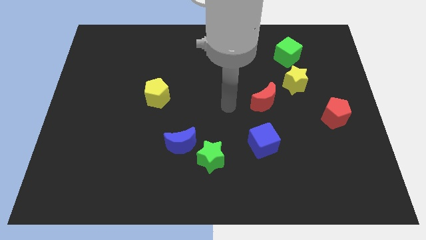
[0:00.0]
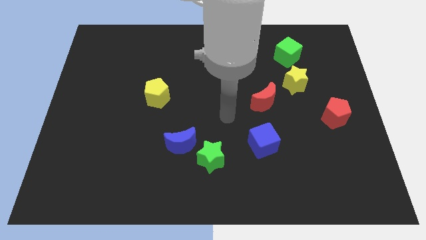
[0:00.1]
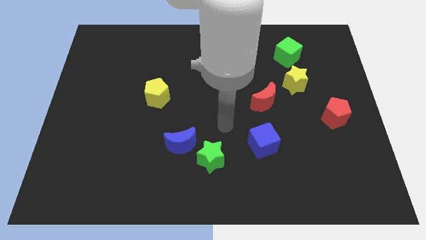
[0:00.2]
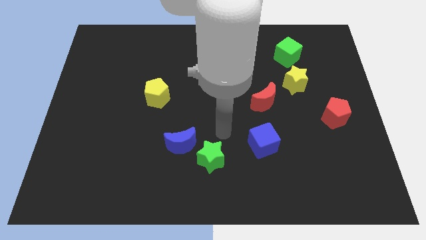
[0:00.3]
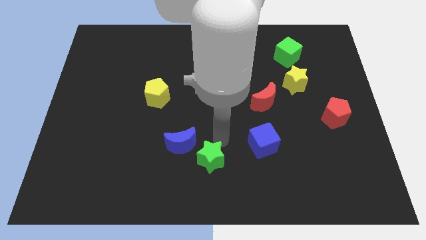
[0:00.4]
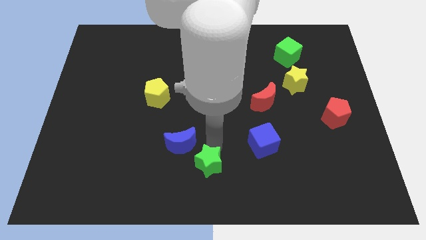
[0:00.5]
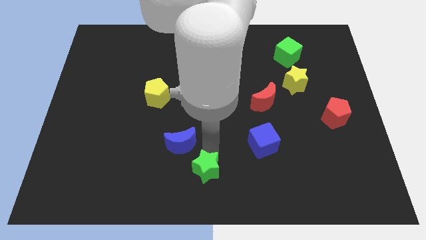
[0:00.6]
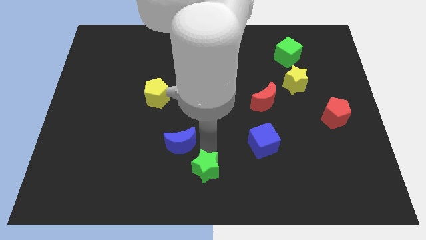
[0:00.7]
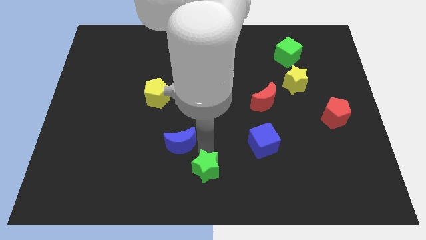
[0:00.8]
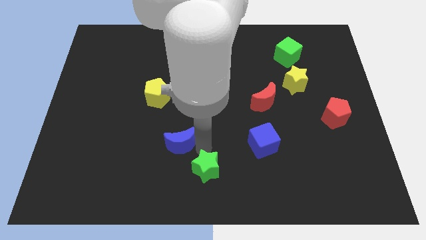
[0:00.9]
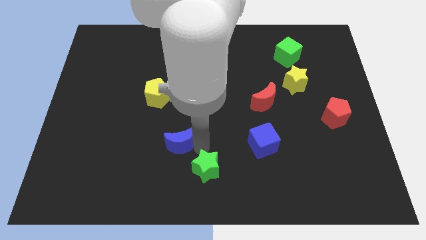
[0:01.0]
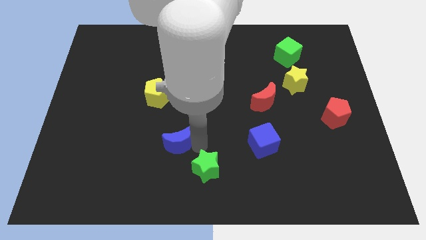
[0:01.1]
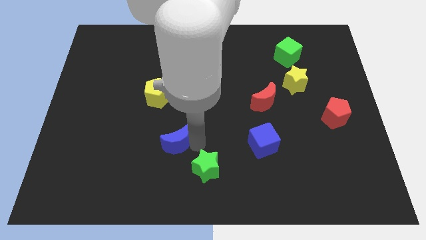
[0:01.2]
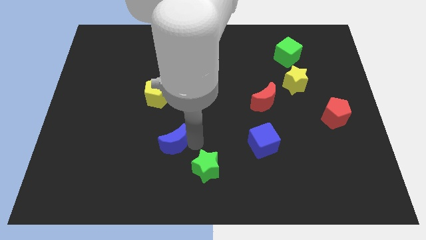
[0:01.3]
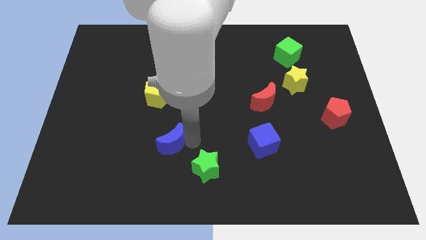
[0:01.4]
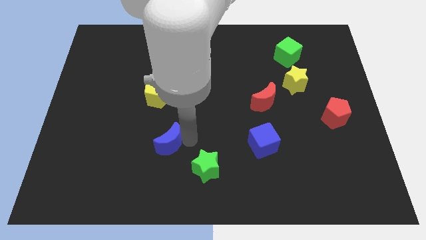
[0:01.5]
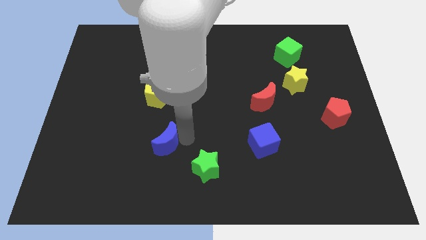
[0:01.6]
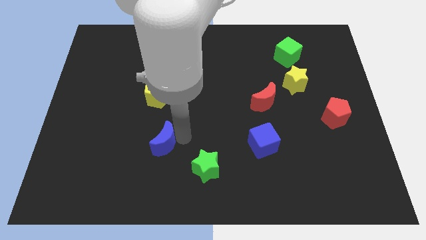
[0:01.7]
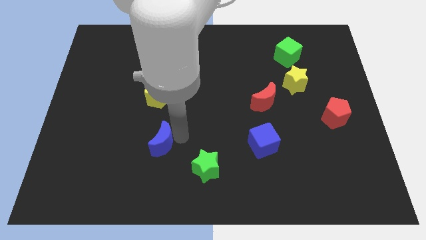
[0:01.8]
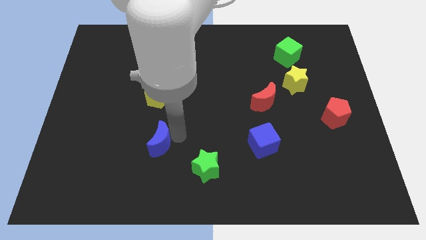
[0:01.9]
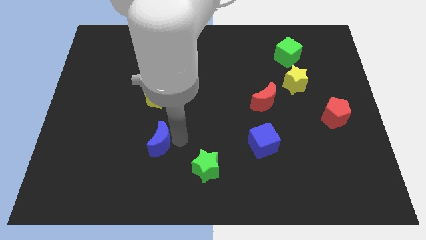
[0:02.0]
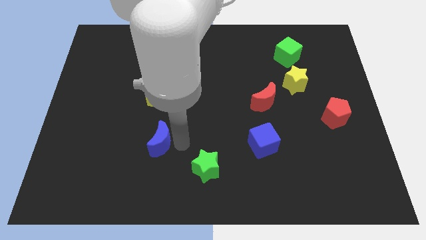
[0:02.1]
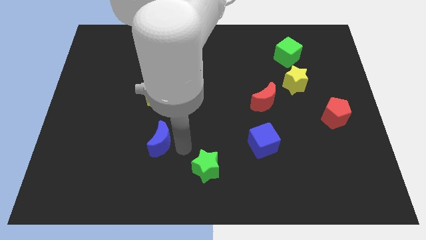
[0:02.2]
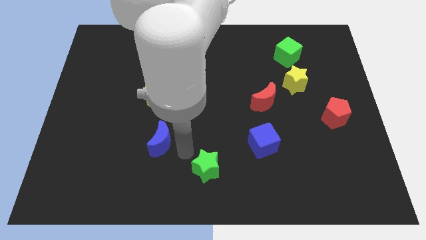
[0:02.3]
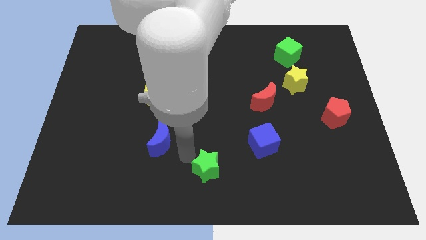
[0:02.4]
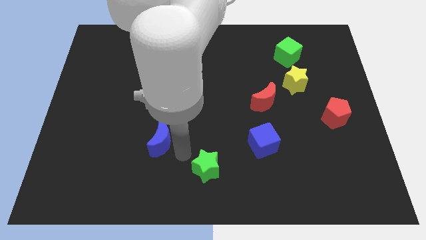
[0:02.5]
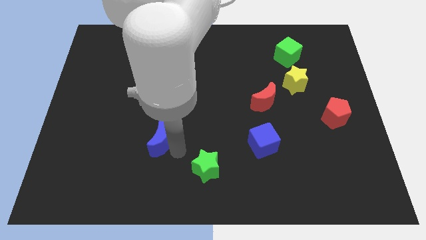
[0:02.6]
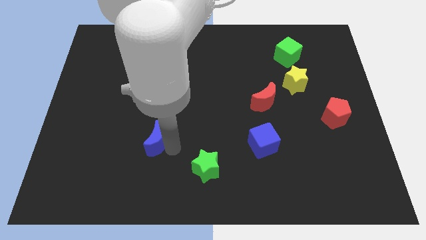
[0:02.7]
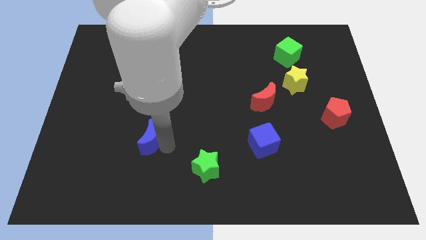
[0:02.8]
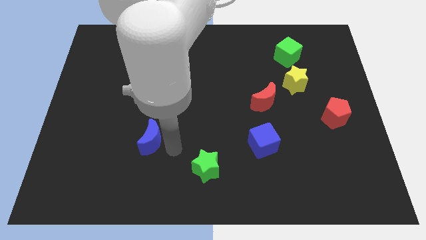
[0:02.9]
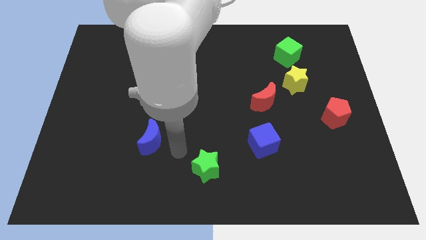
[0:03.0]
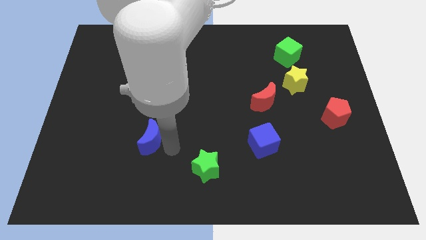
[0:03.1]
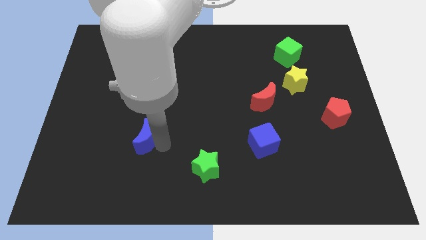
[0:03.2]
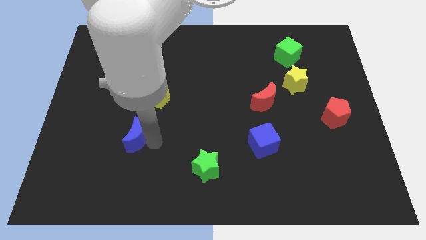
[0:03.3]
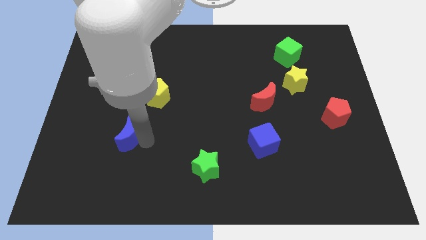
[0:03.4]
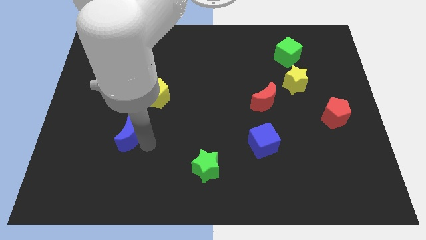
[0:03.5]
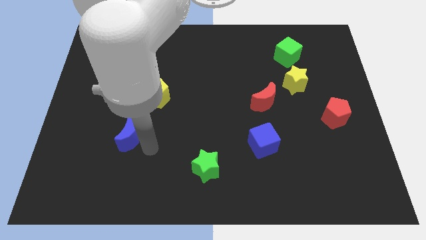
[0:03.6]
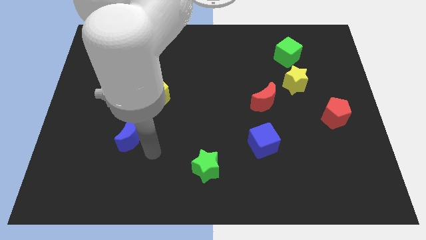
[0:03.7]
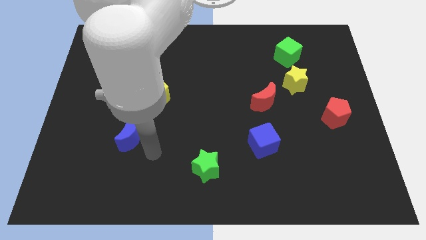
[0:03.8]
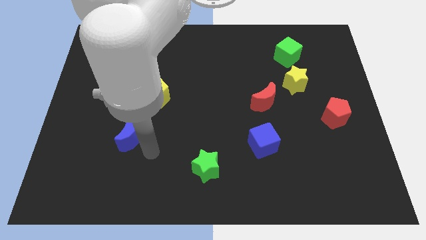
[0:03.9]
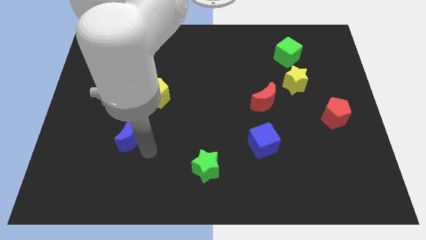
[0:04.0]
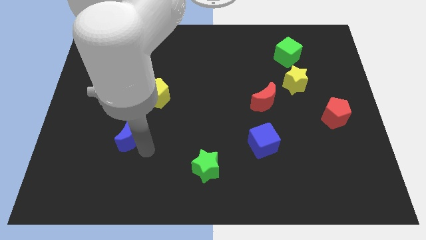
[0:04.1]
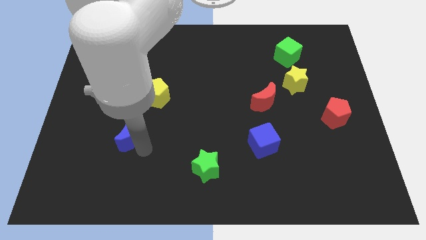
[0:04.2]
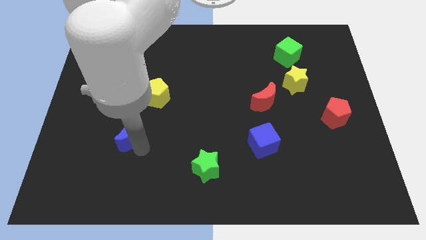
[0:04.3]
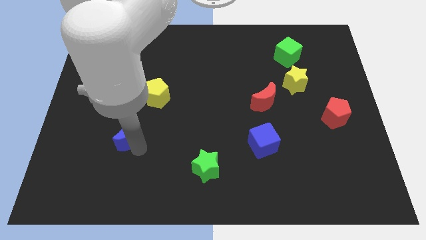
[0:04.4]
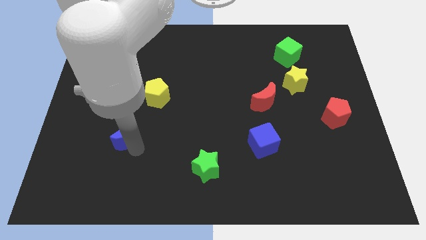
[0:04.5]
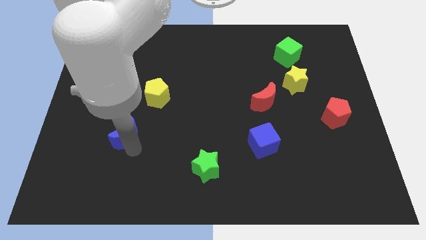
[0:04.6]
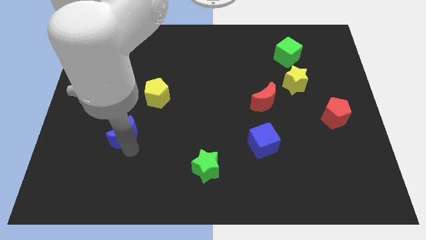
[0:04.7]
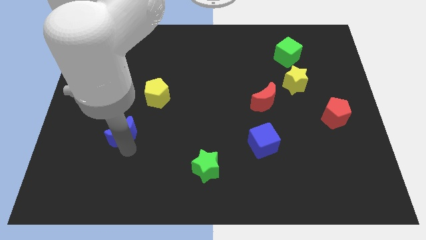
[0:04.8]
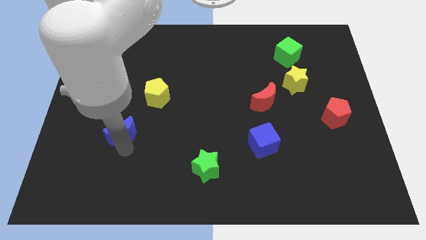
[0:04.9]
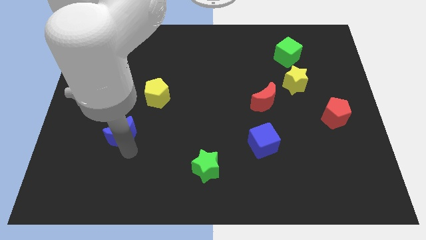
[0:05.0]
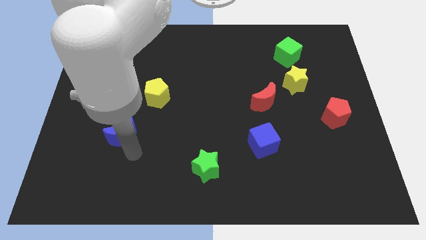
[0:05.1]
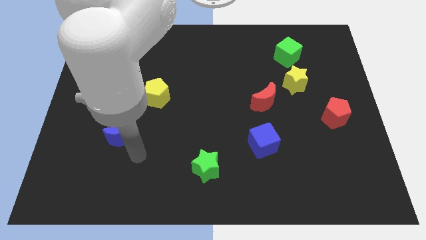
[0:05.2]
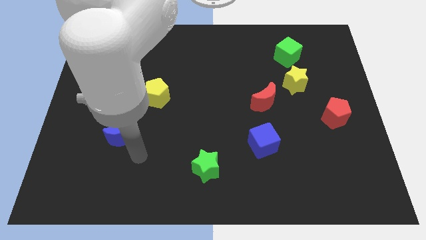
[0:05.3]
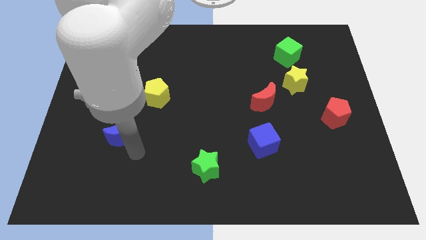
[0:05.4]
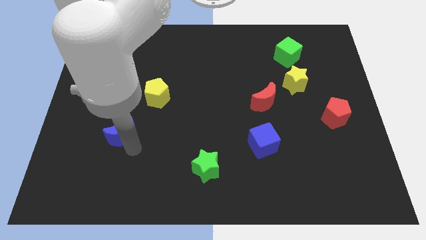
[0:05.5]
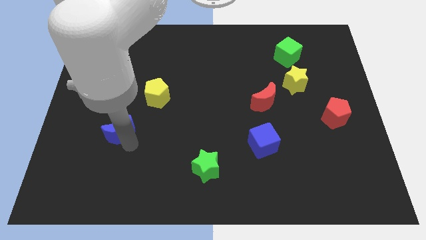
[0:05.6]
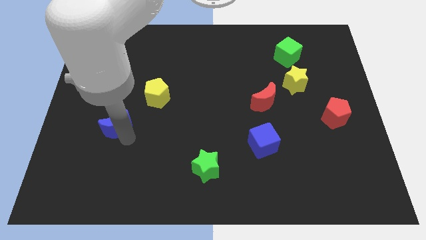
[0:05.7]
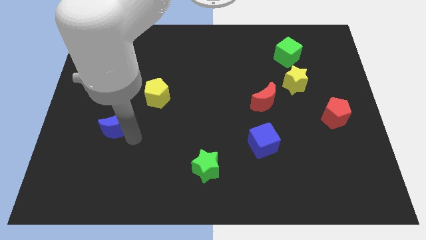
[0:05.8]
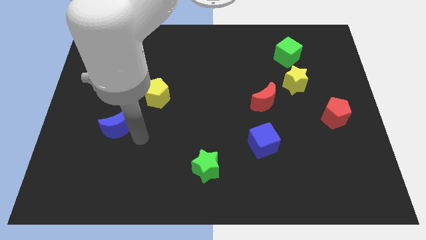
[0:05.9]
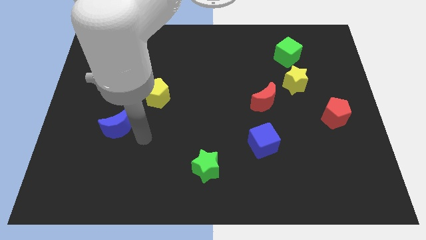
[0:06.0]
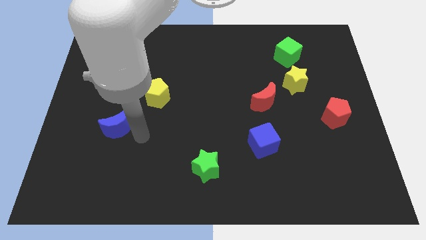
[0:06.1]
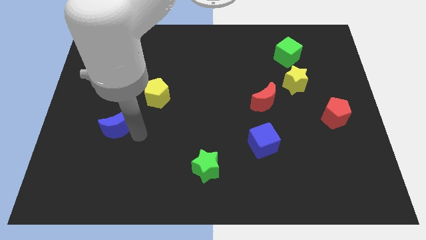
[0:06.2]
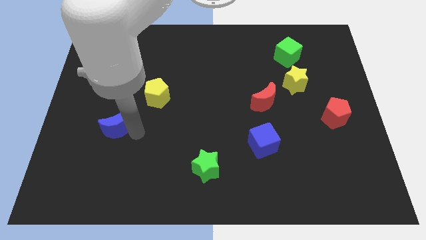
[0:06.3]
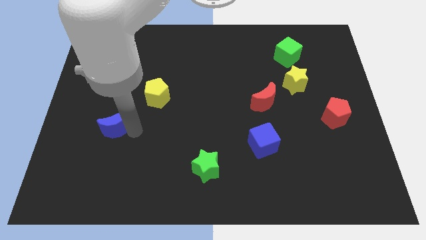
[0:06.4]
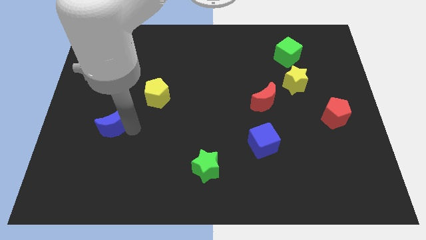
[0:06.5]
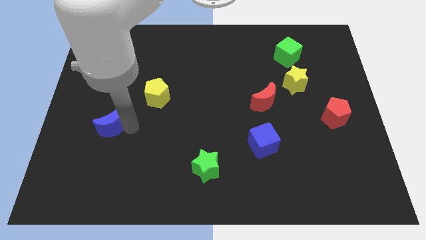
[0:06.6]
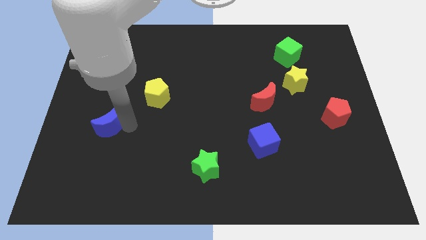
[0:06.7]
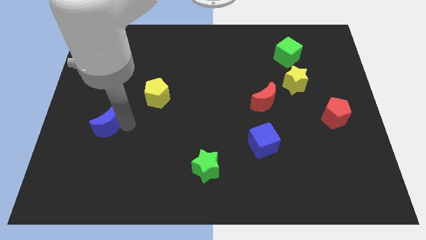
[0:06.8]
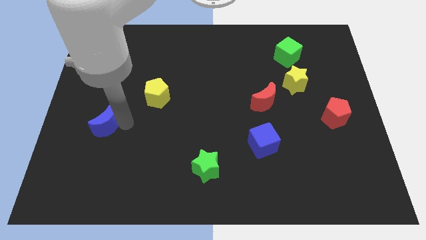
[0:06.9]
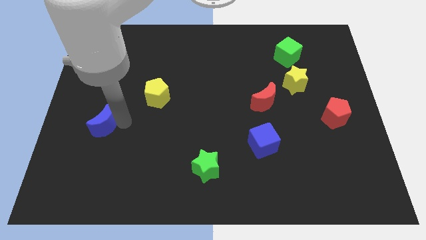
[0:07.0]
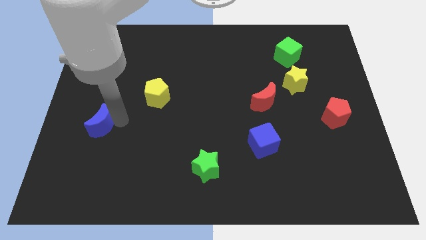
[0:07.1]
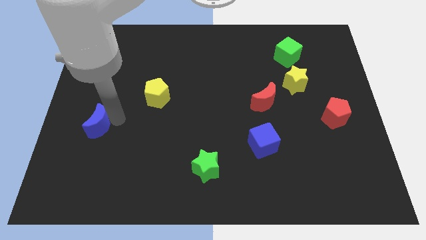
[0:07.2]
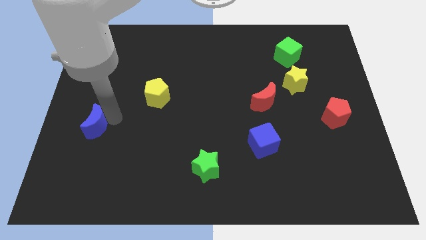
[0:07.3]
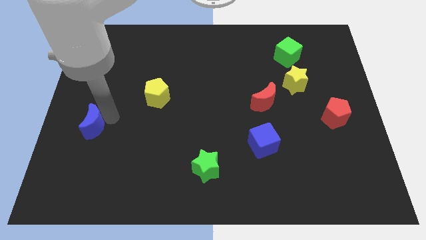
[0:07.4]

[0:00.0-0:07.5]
push the blue moon to the center left
